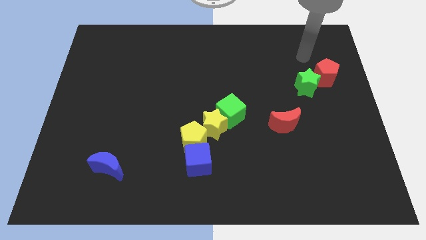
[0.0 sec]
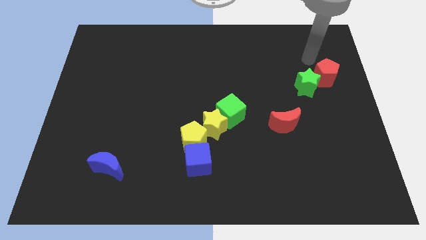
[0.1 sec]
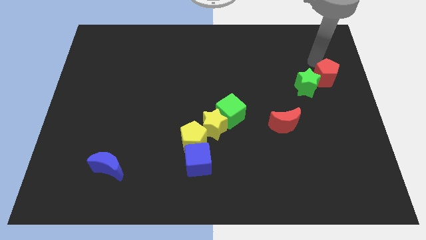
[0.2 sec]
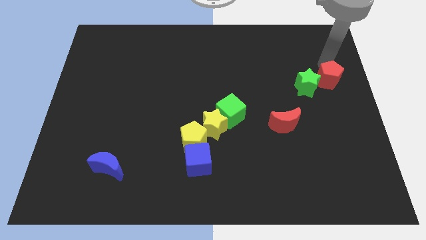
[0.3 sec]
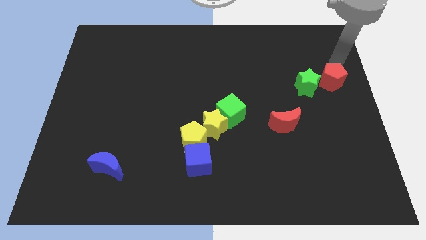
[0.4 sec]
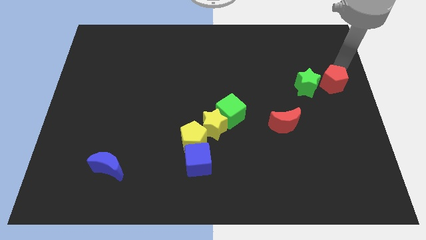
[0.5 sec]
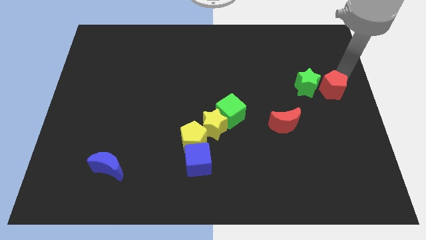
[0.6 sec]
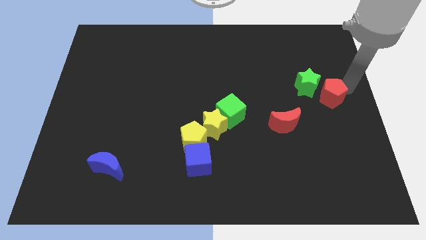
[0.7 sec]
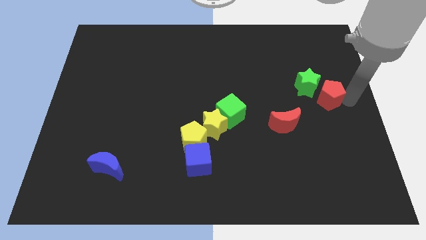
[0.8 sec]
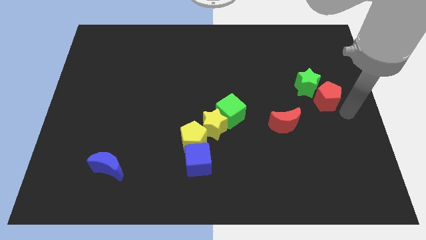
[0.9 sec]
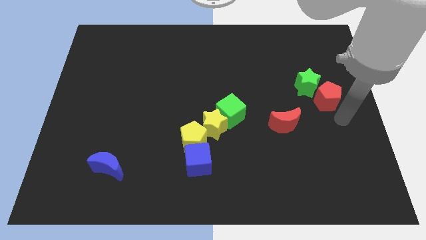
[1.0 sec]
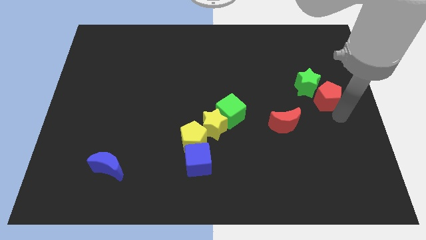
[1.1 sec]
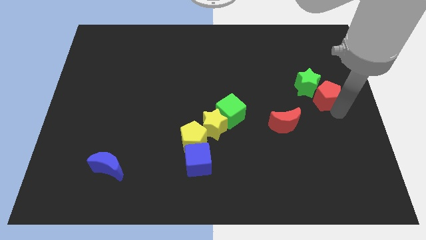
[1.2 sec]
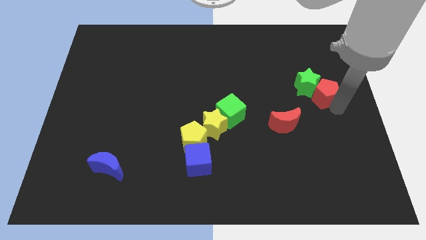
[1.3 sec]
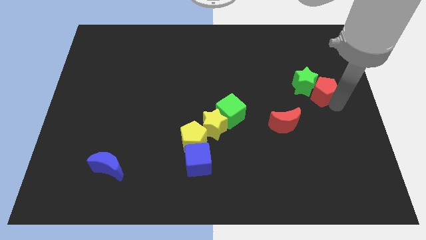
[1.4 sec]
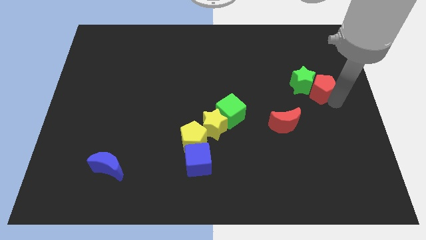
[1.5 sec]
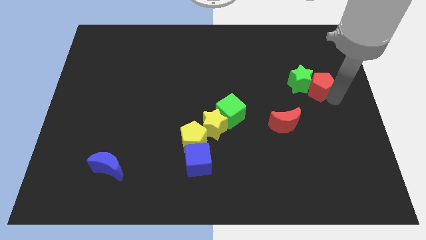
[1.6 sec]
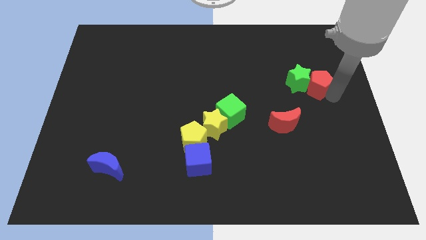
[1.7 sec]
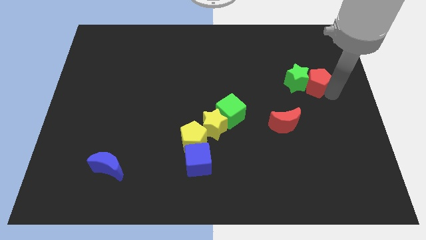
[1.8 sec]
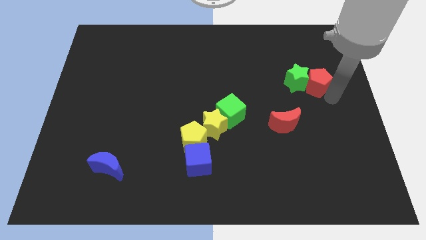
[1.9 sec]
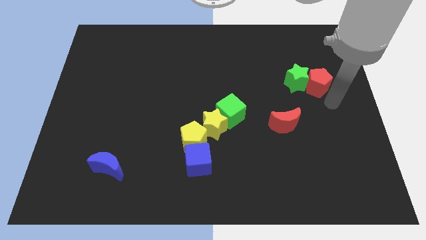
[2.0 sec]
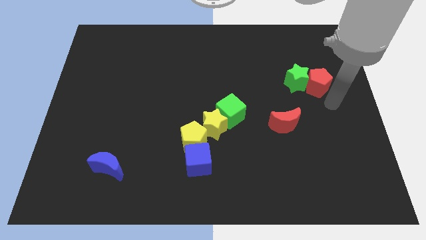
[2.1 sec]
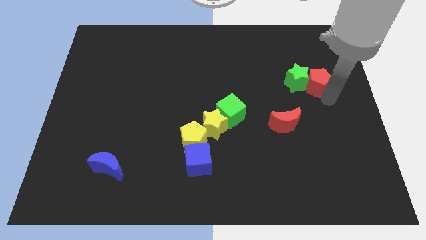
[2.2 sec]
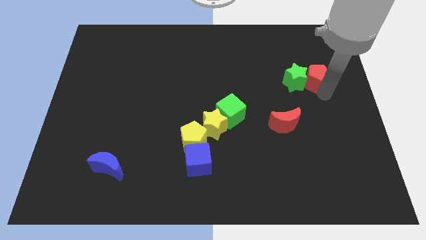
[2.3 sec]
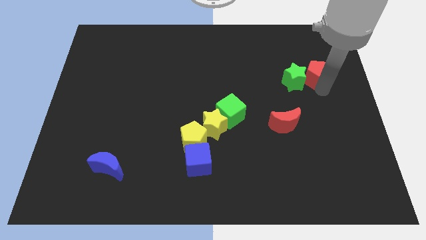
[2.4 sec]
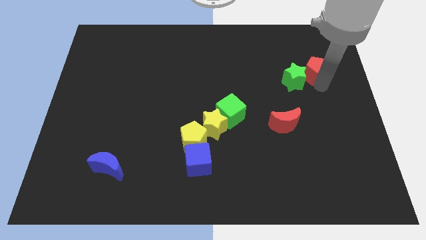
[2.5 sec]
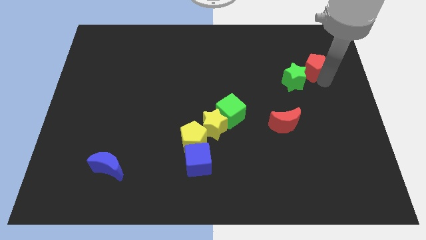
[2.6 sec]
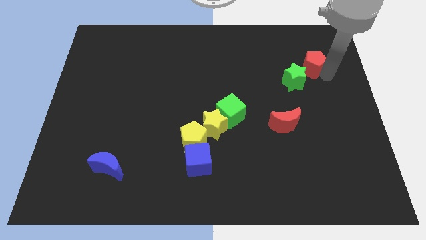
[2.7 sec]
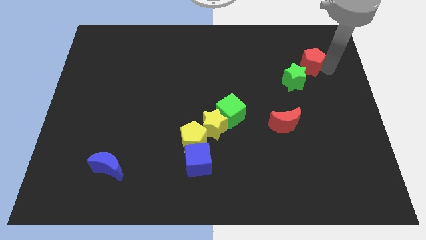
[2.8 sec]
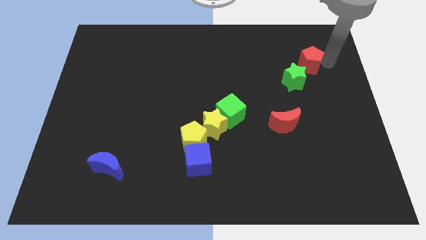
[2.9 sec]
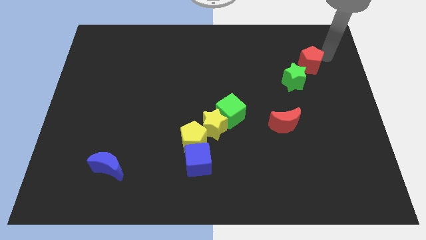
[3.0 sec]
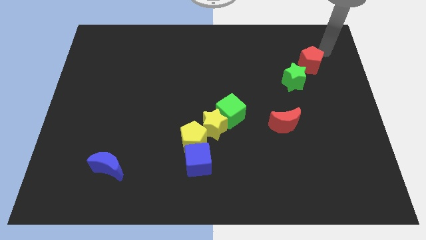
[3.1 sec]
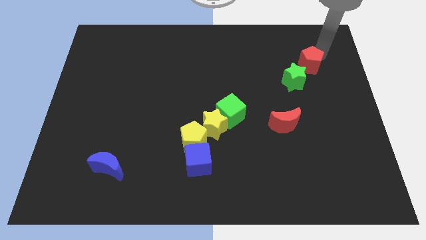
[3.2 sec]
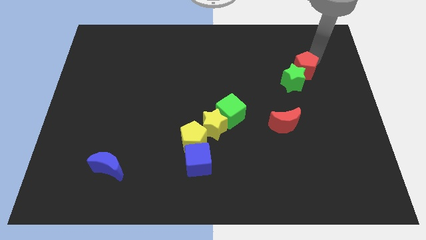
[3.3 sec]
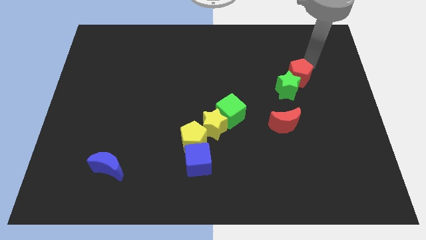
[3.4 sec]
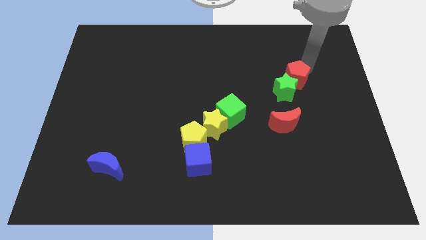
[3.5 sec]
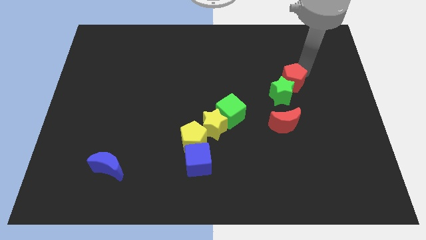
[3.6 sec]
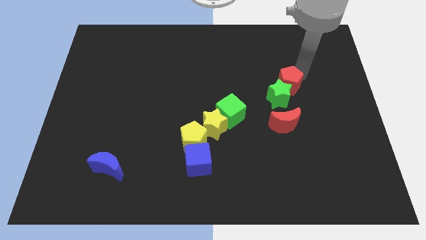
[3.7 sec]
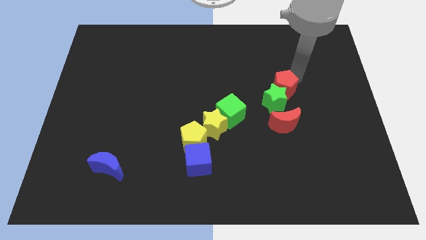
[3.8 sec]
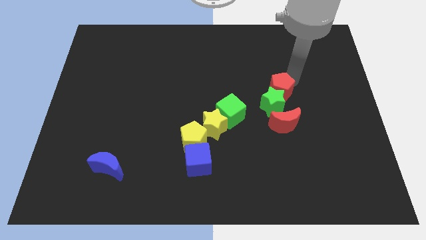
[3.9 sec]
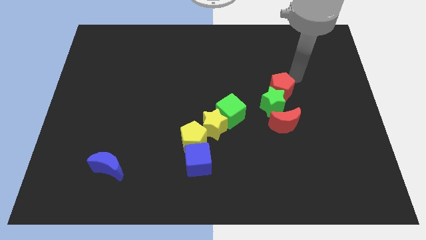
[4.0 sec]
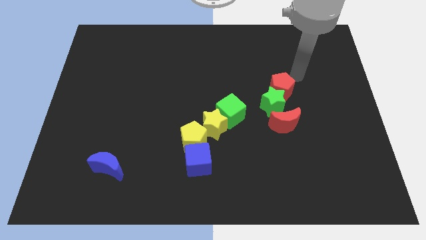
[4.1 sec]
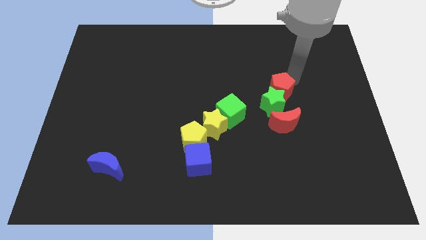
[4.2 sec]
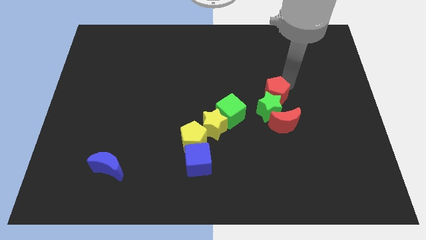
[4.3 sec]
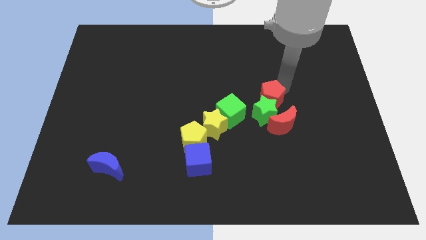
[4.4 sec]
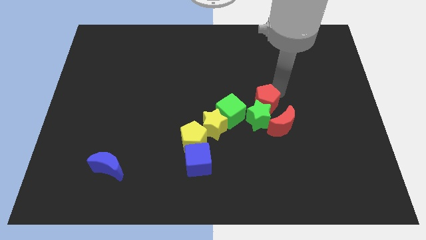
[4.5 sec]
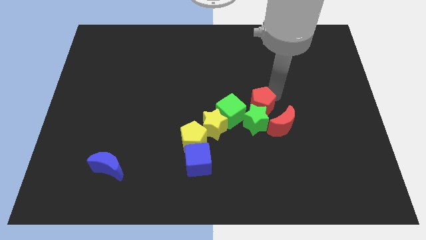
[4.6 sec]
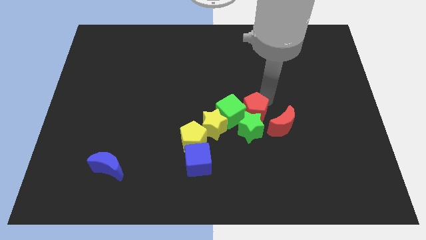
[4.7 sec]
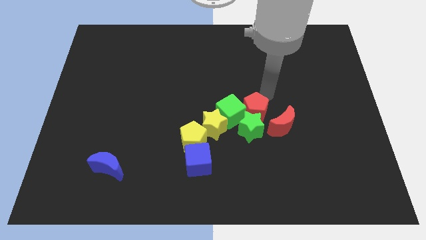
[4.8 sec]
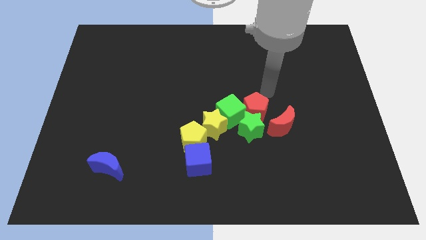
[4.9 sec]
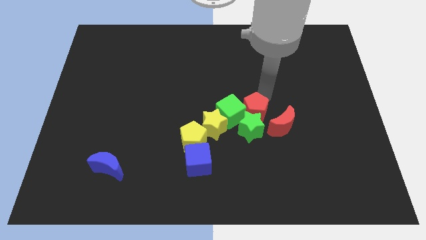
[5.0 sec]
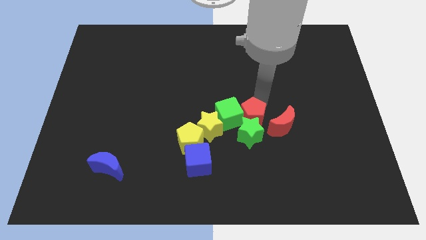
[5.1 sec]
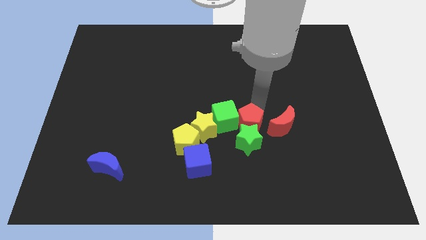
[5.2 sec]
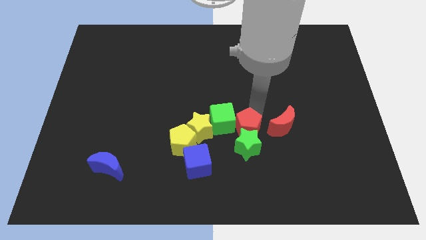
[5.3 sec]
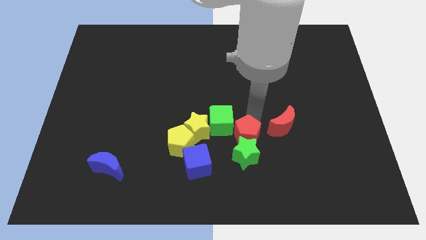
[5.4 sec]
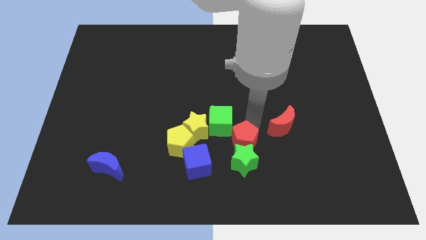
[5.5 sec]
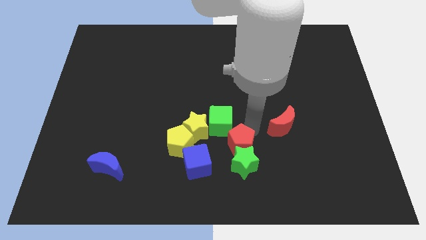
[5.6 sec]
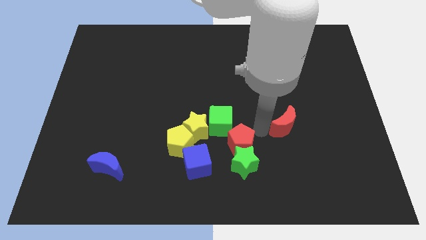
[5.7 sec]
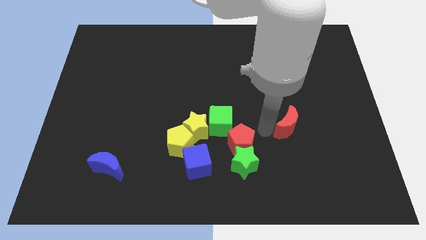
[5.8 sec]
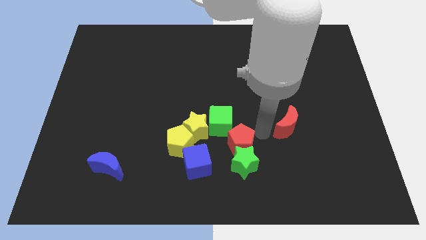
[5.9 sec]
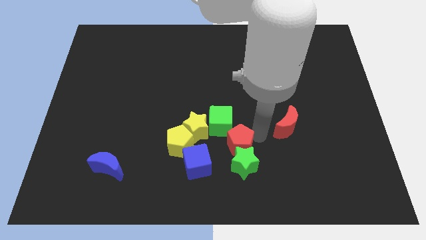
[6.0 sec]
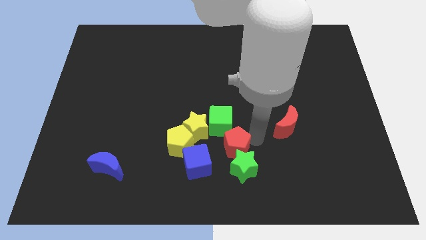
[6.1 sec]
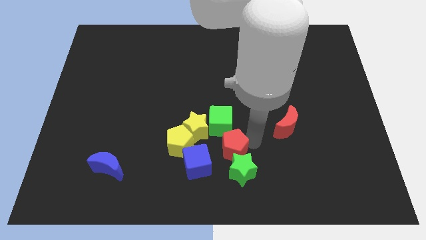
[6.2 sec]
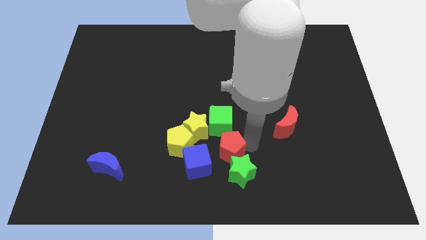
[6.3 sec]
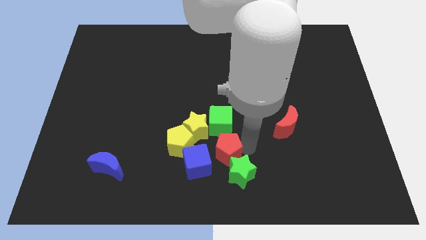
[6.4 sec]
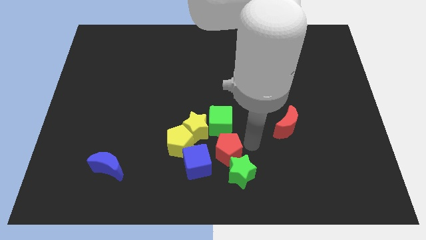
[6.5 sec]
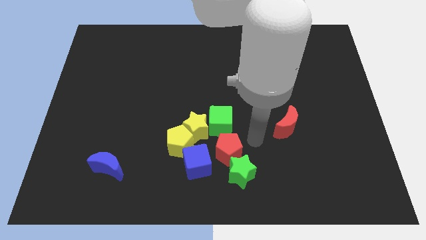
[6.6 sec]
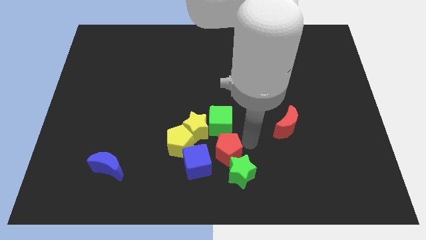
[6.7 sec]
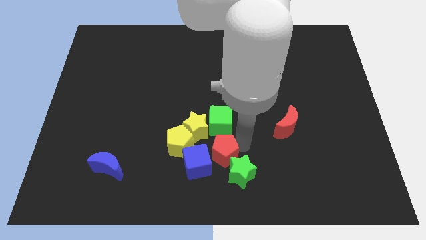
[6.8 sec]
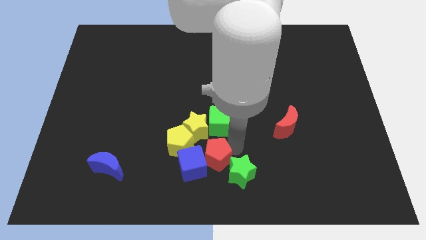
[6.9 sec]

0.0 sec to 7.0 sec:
put the red pentagon towards the blue cube

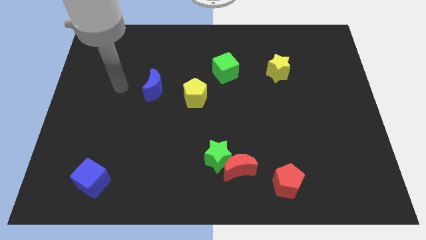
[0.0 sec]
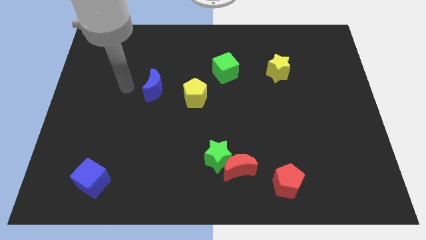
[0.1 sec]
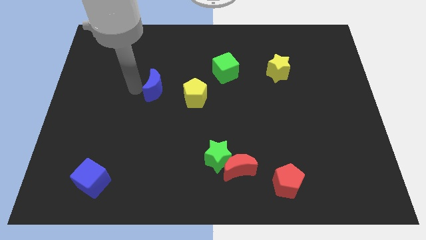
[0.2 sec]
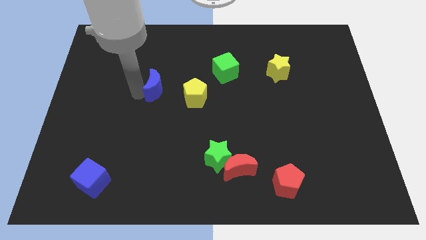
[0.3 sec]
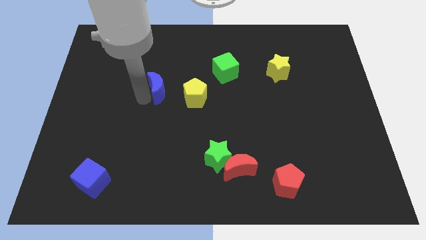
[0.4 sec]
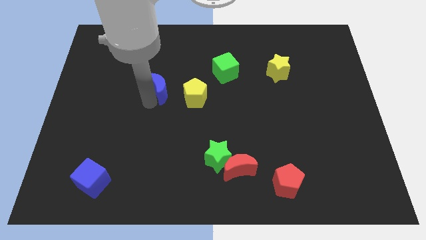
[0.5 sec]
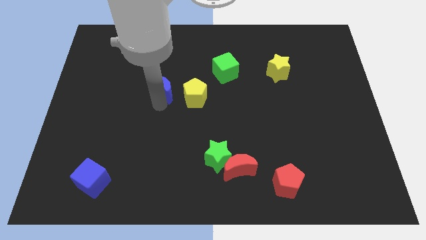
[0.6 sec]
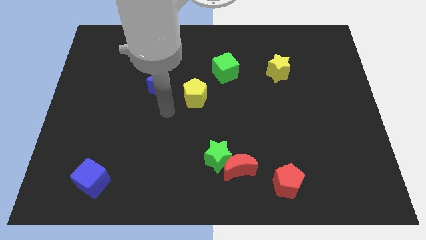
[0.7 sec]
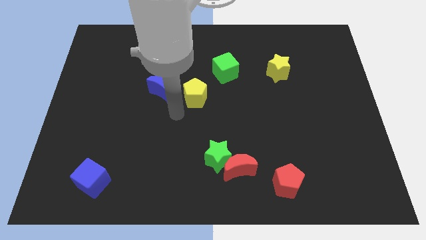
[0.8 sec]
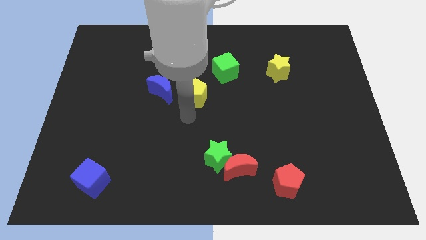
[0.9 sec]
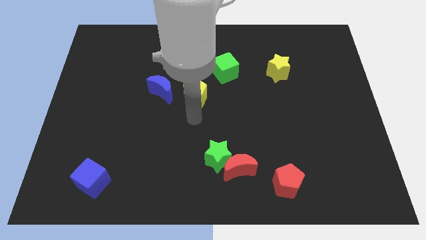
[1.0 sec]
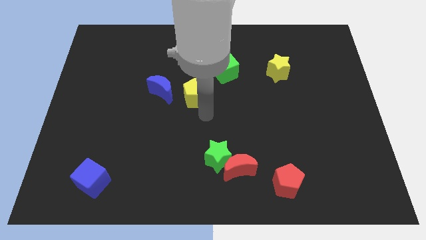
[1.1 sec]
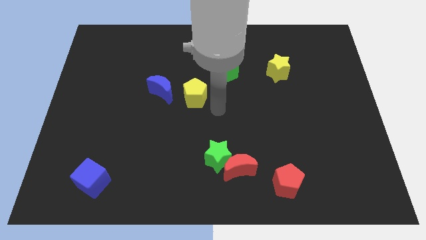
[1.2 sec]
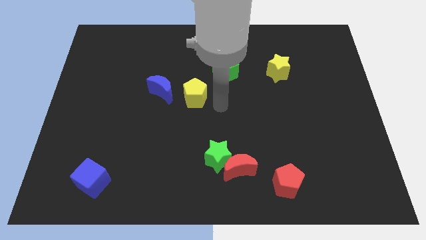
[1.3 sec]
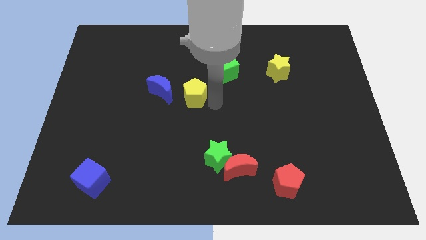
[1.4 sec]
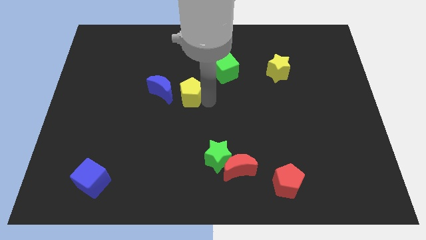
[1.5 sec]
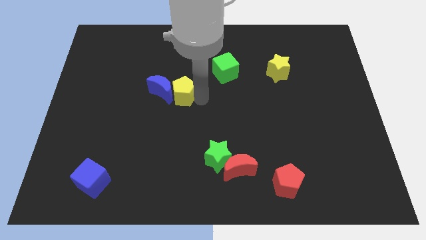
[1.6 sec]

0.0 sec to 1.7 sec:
slide the yellow pentagon close to the blue moon
